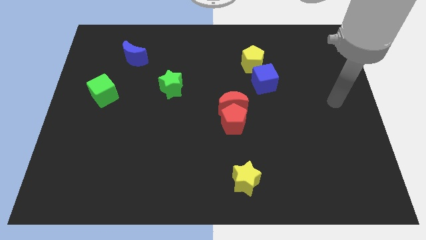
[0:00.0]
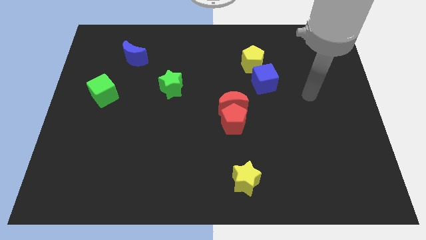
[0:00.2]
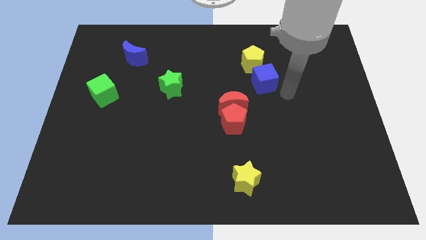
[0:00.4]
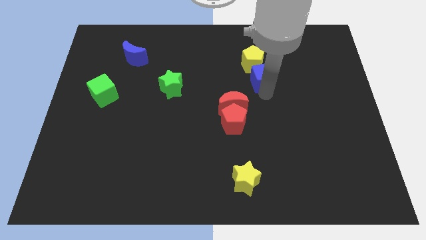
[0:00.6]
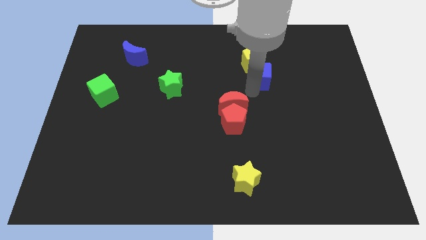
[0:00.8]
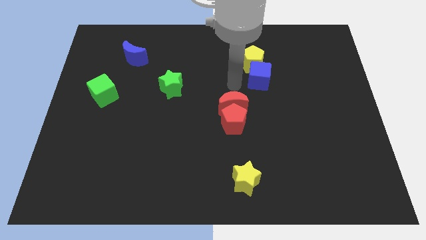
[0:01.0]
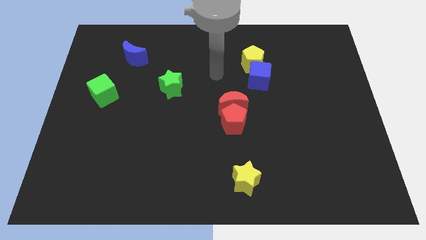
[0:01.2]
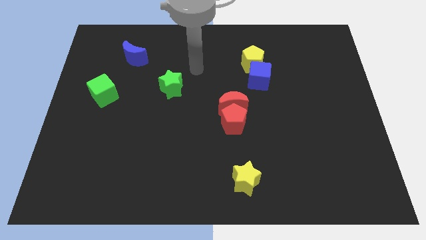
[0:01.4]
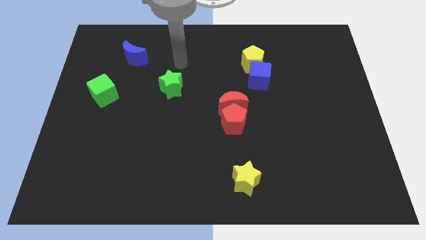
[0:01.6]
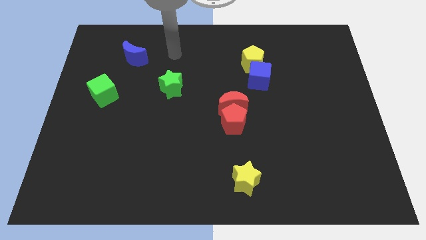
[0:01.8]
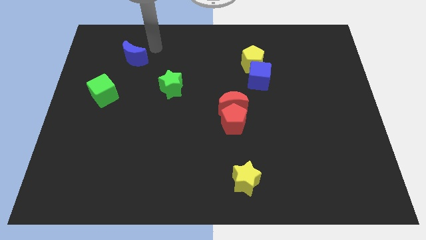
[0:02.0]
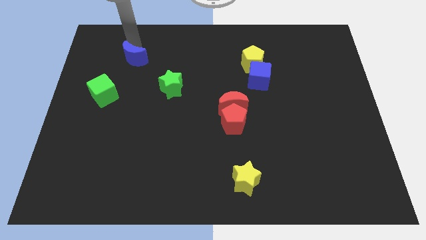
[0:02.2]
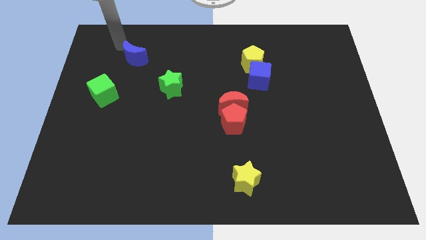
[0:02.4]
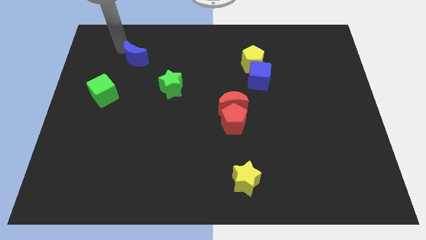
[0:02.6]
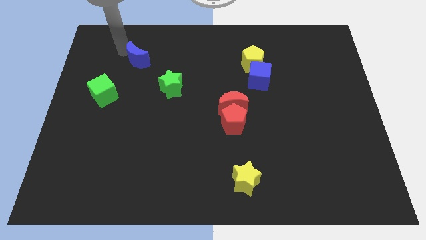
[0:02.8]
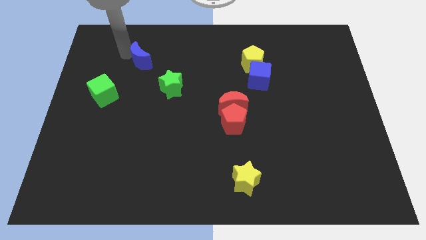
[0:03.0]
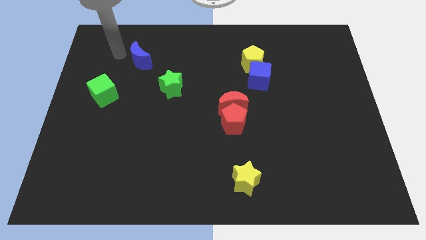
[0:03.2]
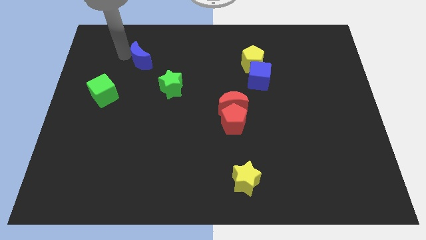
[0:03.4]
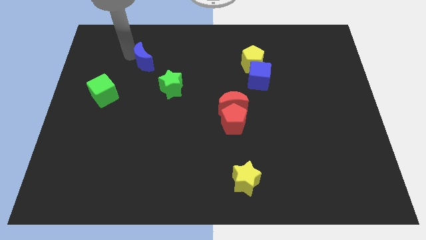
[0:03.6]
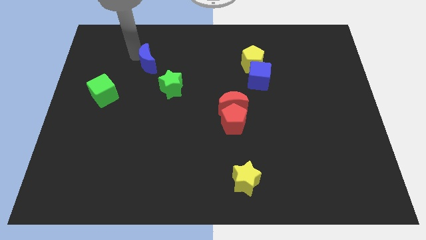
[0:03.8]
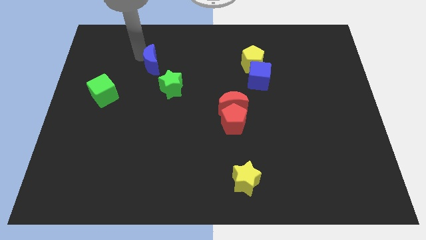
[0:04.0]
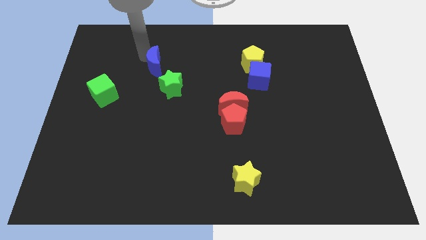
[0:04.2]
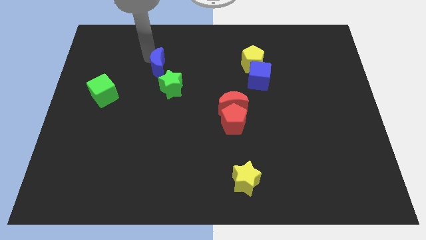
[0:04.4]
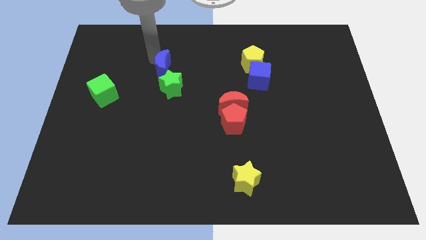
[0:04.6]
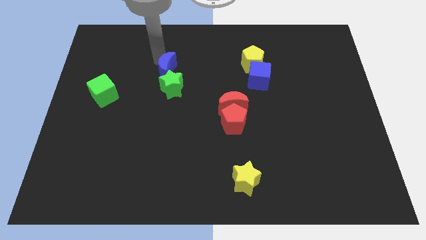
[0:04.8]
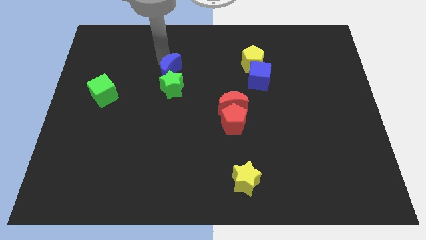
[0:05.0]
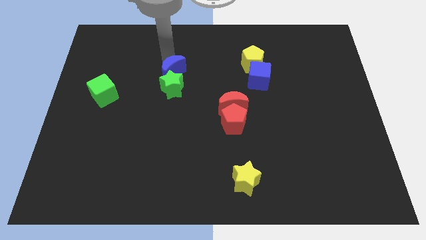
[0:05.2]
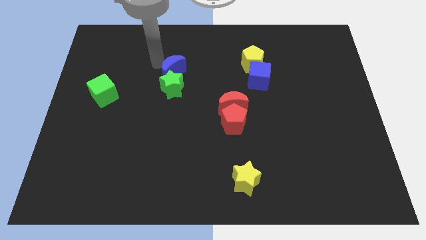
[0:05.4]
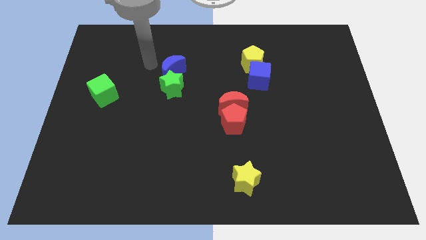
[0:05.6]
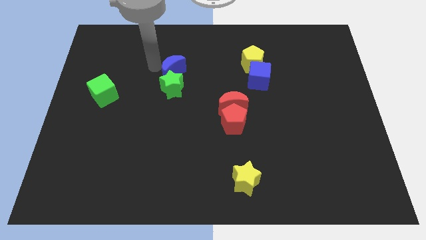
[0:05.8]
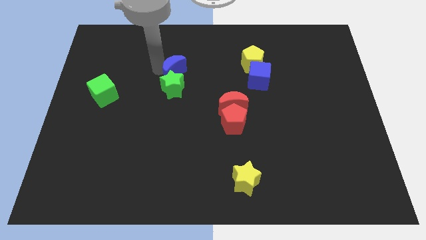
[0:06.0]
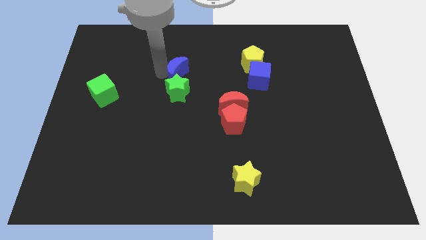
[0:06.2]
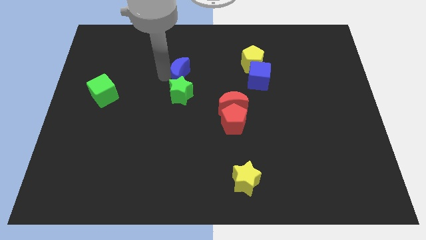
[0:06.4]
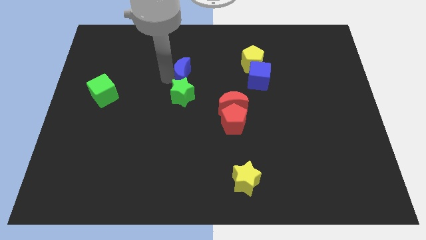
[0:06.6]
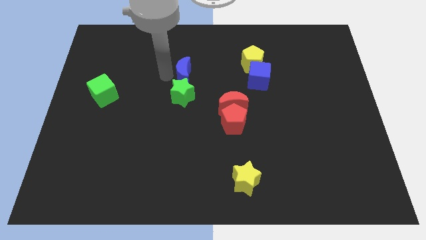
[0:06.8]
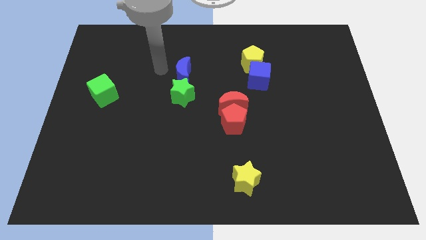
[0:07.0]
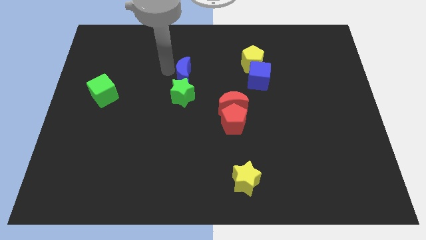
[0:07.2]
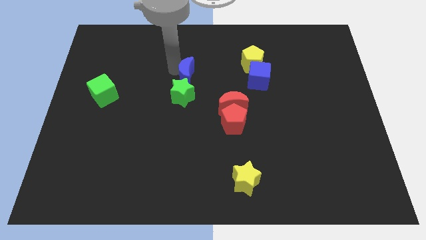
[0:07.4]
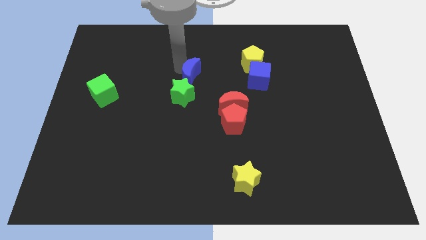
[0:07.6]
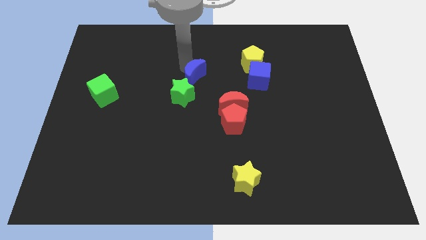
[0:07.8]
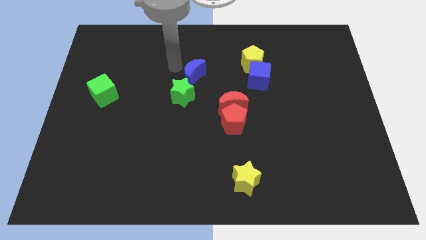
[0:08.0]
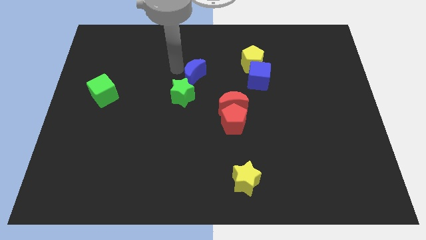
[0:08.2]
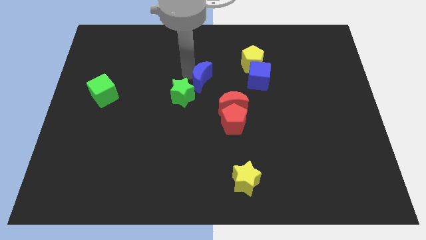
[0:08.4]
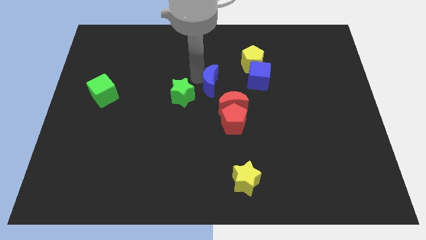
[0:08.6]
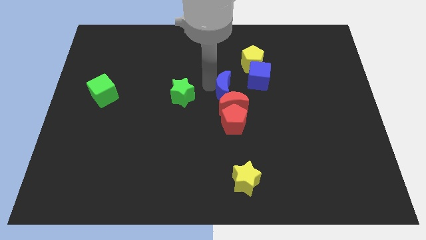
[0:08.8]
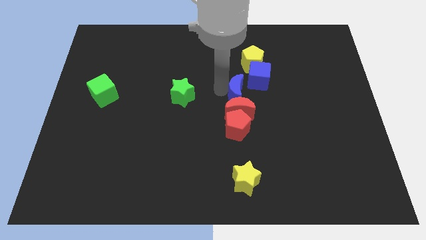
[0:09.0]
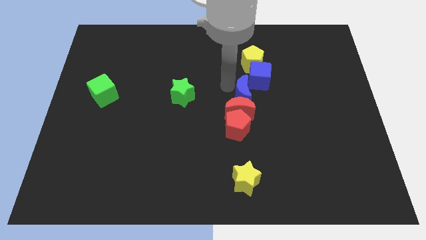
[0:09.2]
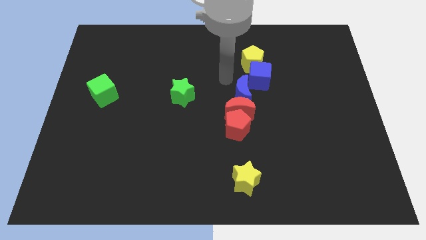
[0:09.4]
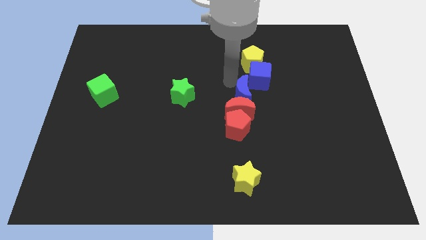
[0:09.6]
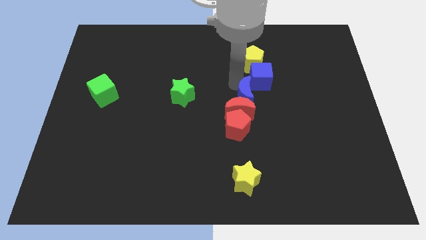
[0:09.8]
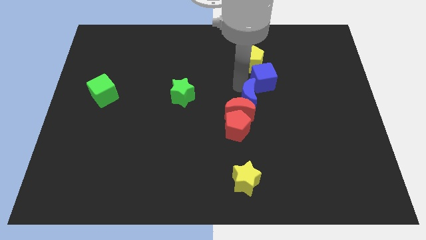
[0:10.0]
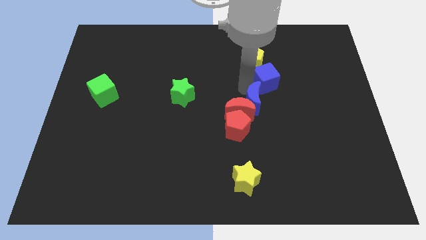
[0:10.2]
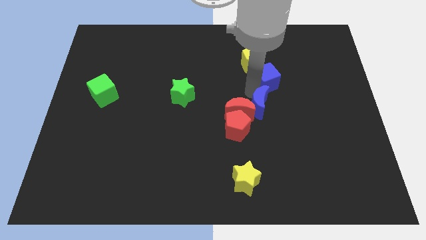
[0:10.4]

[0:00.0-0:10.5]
slide the blue moon diagonally down and to the right of the red moon

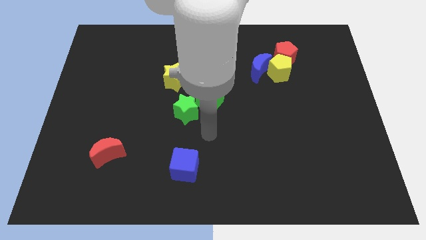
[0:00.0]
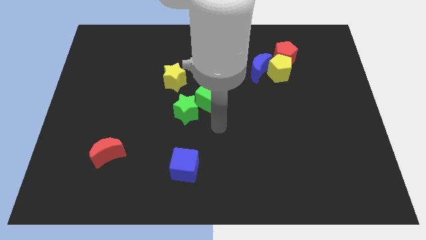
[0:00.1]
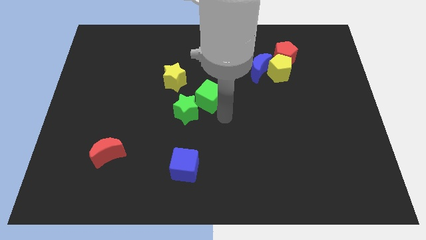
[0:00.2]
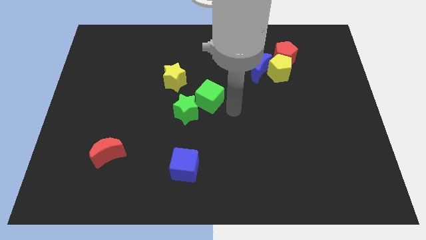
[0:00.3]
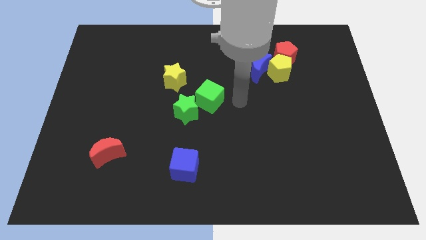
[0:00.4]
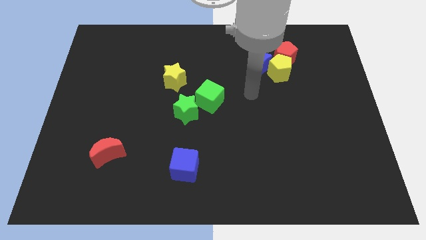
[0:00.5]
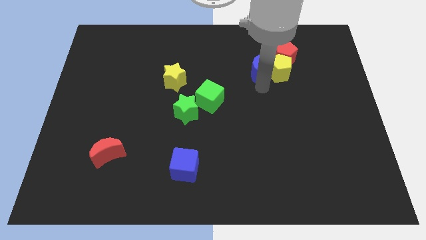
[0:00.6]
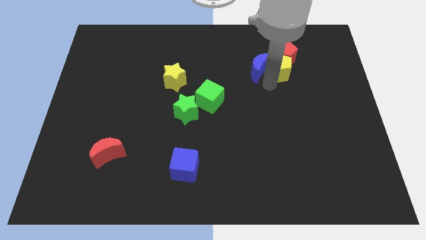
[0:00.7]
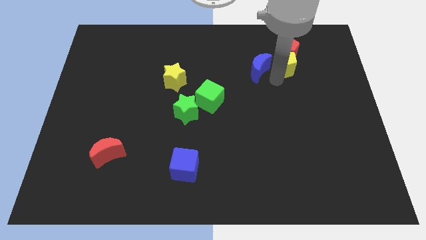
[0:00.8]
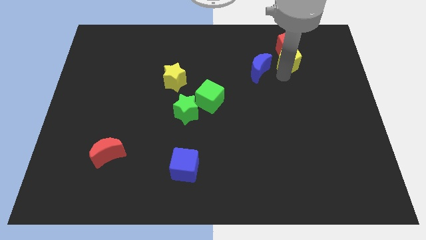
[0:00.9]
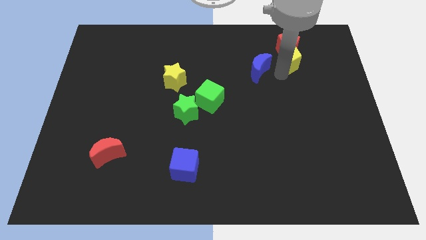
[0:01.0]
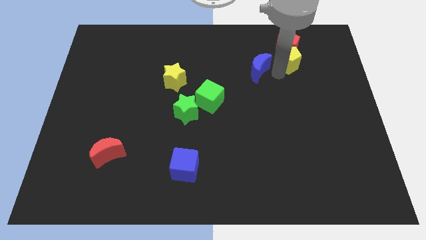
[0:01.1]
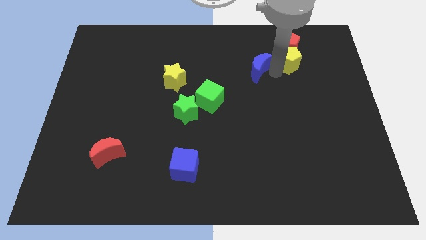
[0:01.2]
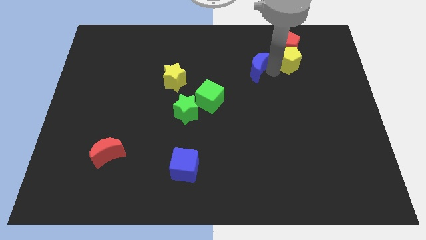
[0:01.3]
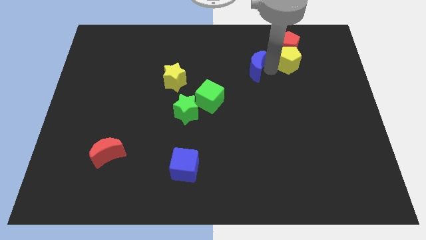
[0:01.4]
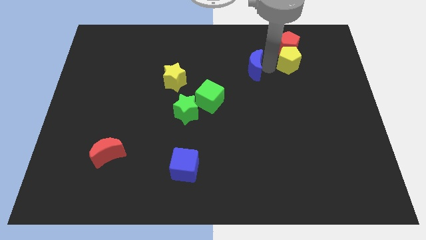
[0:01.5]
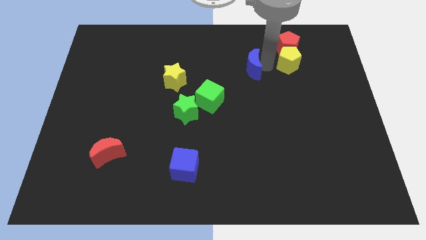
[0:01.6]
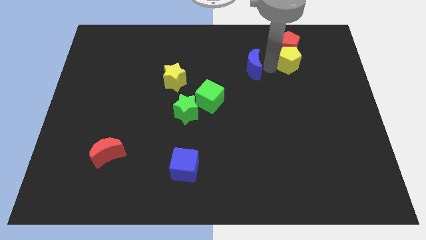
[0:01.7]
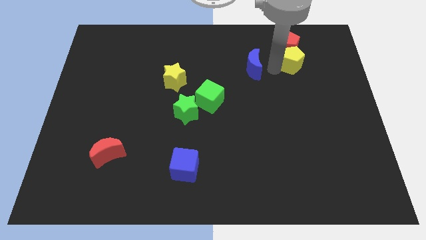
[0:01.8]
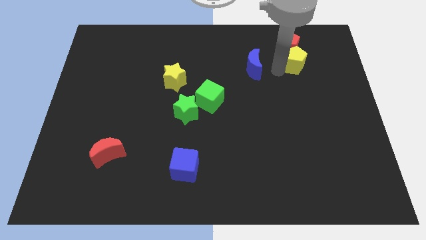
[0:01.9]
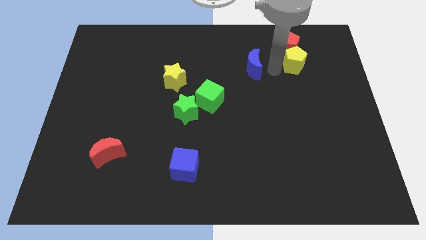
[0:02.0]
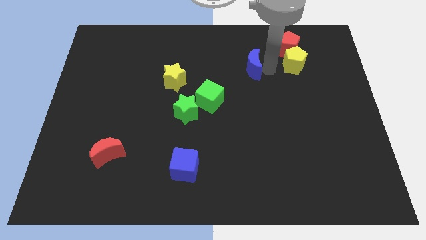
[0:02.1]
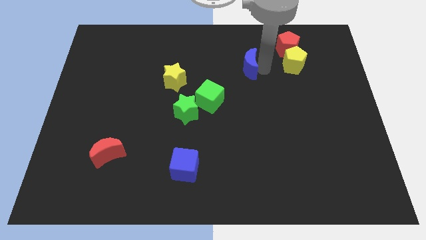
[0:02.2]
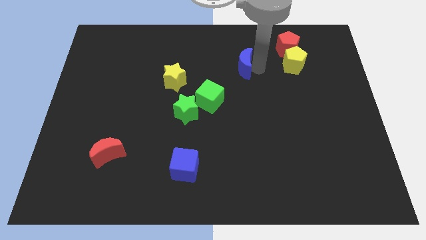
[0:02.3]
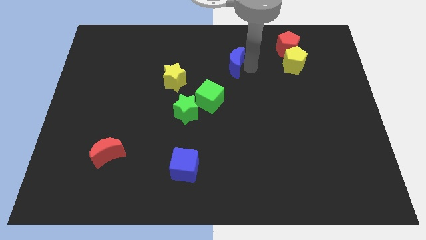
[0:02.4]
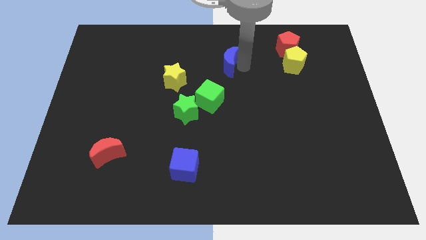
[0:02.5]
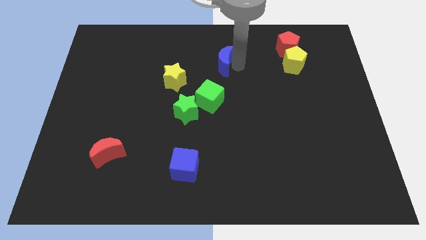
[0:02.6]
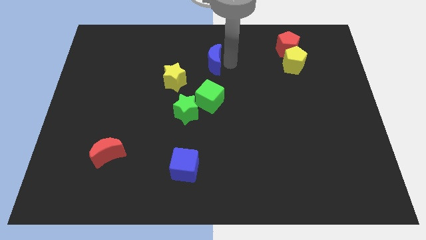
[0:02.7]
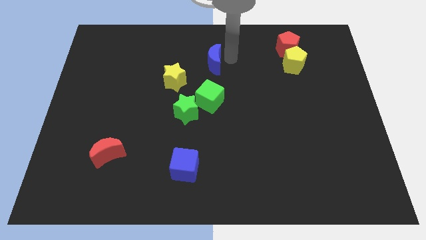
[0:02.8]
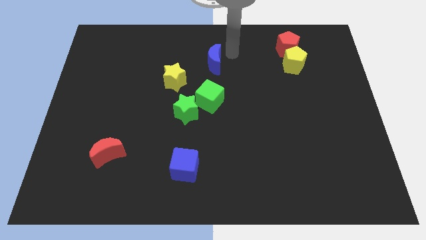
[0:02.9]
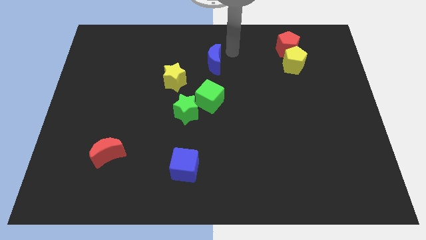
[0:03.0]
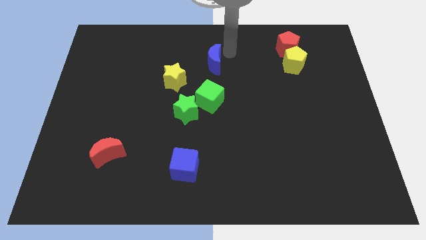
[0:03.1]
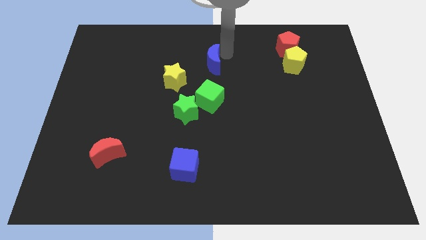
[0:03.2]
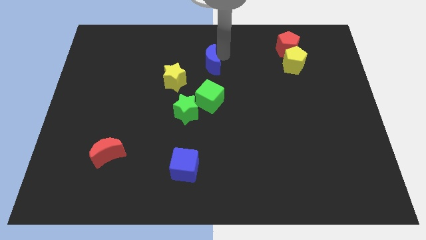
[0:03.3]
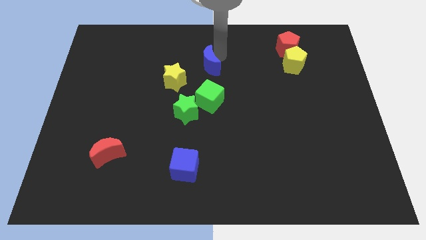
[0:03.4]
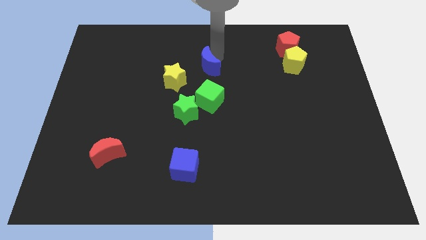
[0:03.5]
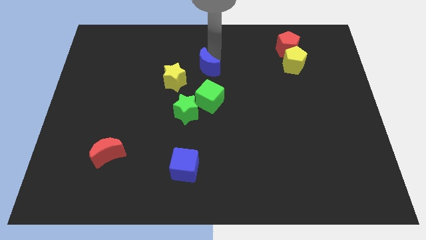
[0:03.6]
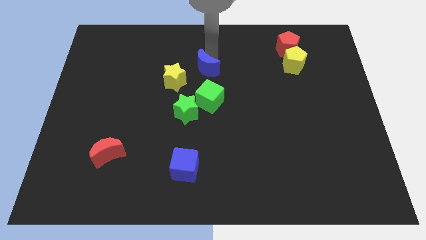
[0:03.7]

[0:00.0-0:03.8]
push the blue moon to the top of the green star
